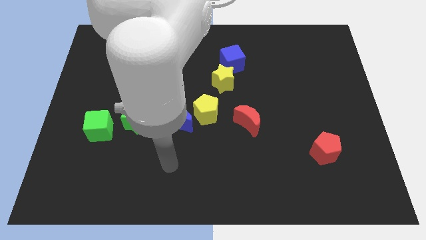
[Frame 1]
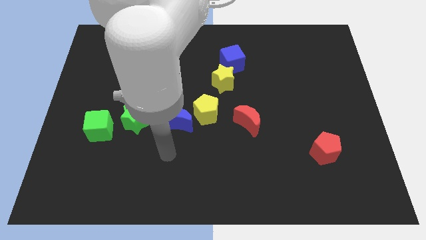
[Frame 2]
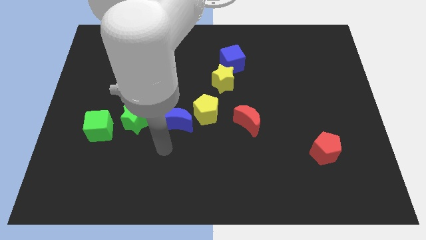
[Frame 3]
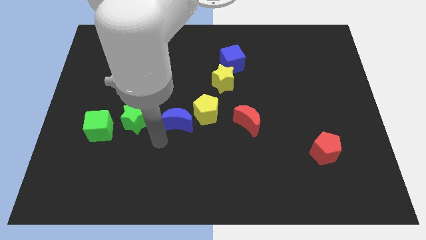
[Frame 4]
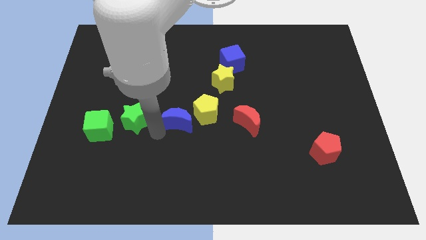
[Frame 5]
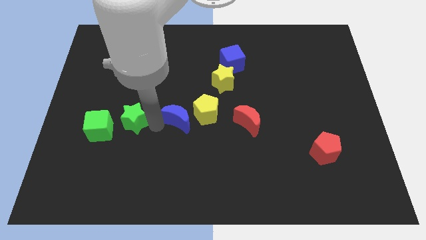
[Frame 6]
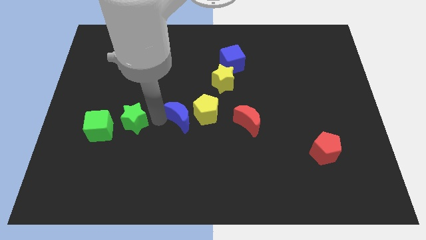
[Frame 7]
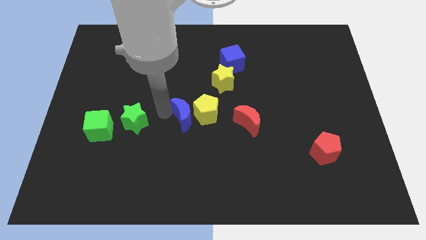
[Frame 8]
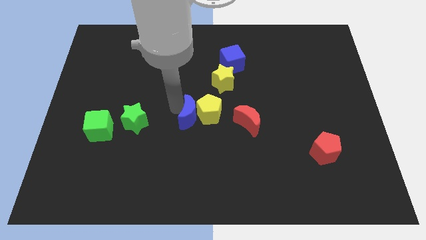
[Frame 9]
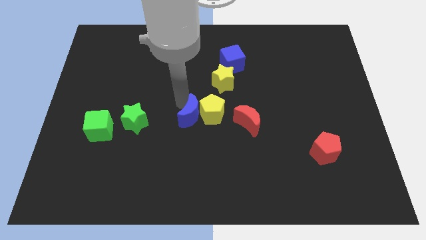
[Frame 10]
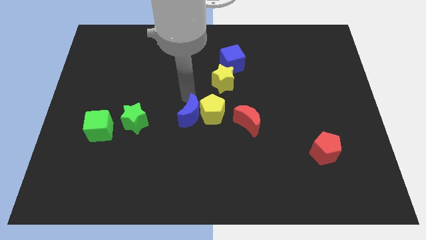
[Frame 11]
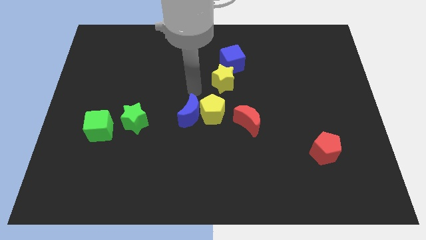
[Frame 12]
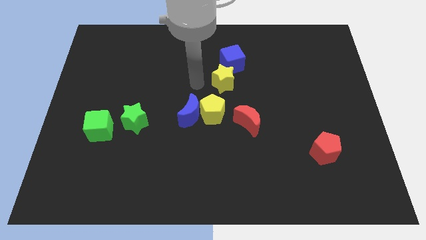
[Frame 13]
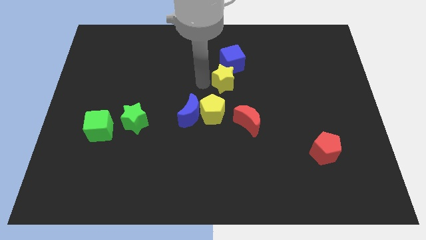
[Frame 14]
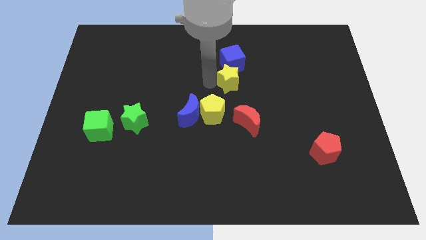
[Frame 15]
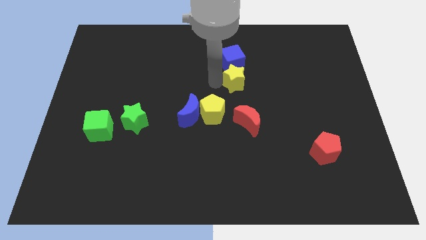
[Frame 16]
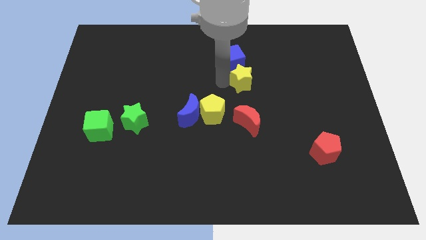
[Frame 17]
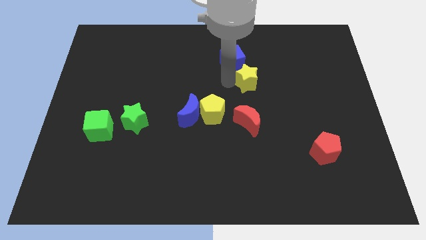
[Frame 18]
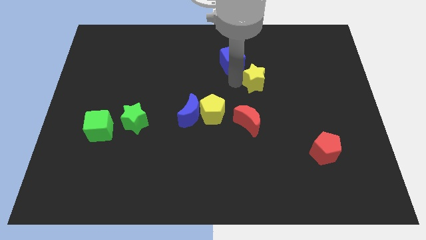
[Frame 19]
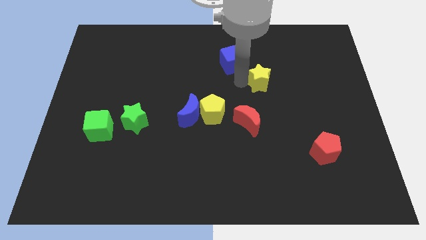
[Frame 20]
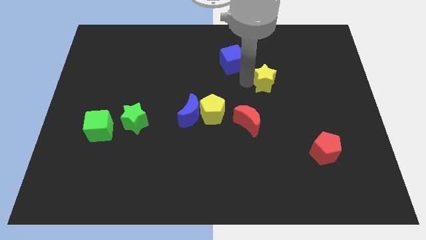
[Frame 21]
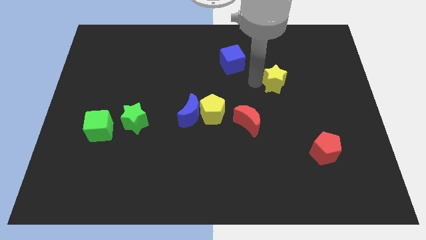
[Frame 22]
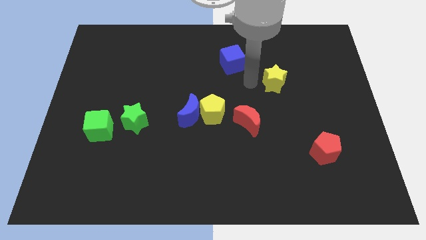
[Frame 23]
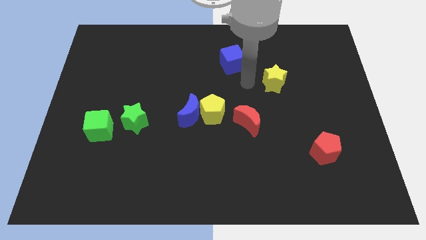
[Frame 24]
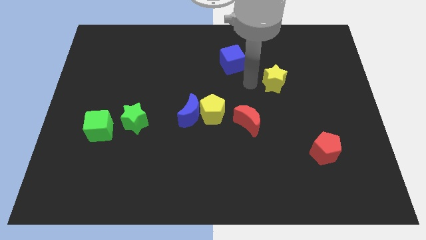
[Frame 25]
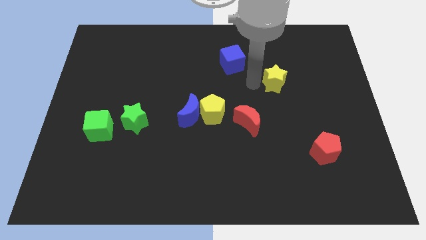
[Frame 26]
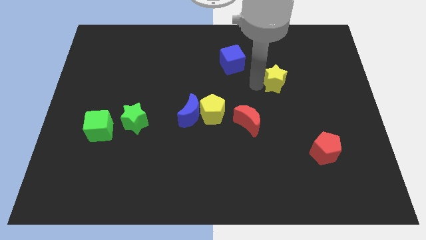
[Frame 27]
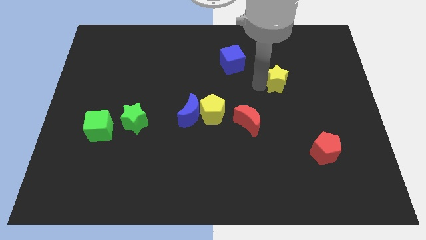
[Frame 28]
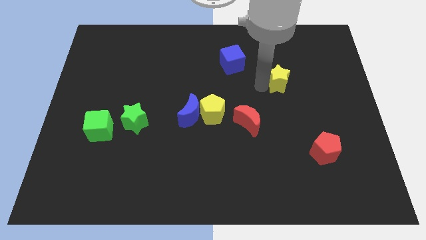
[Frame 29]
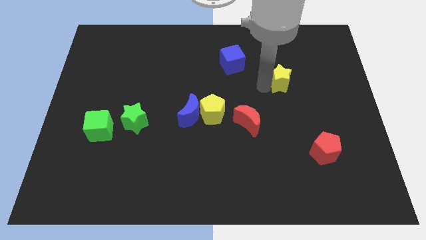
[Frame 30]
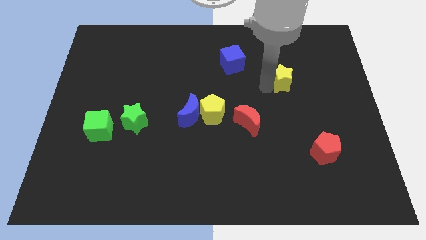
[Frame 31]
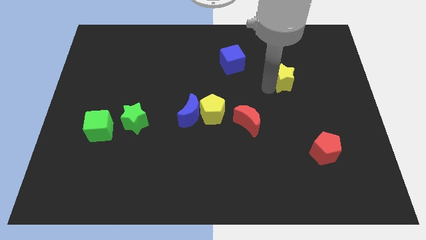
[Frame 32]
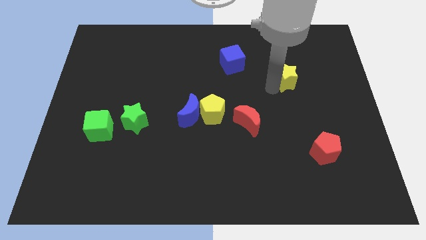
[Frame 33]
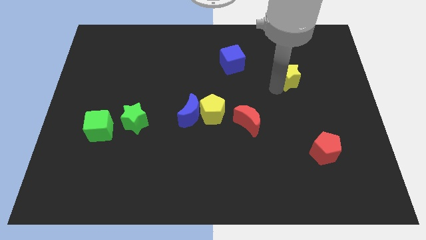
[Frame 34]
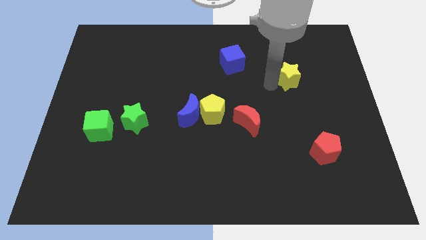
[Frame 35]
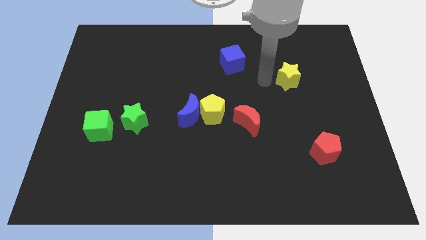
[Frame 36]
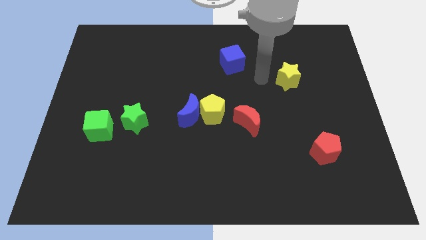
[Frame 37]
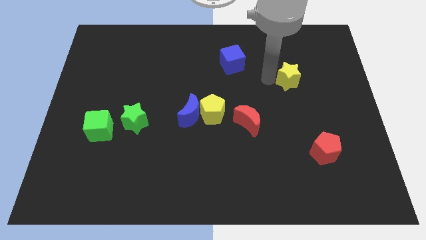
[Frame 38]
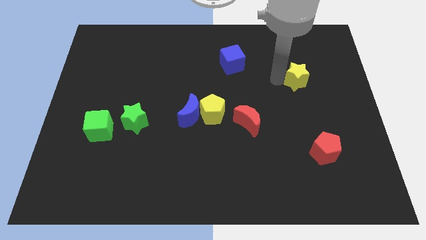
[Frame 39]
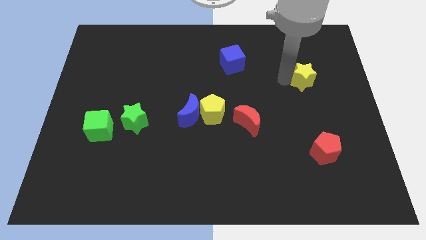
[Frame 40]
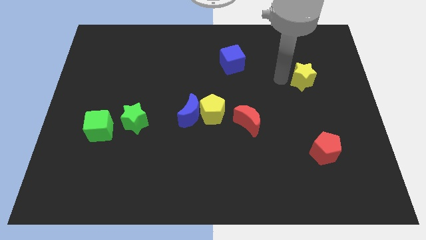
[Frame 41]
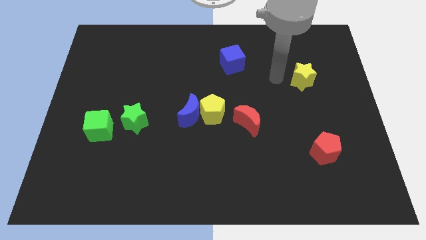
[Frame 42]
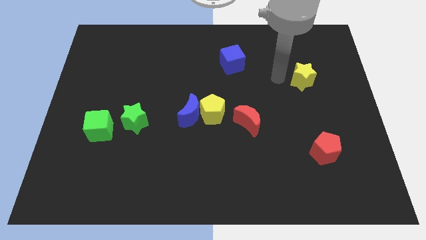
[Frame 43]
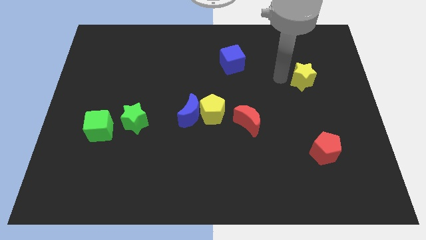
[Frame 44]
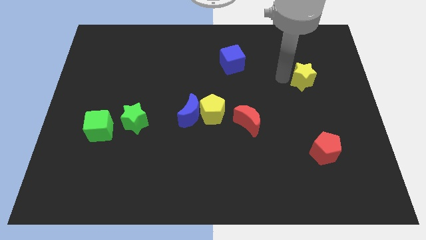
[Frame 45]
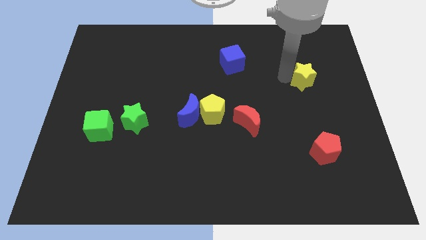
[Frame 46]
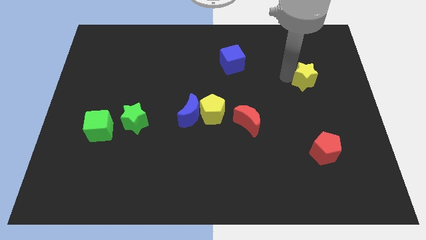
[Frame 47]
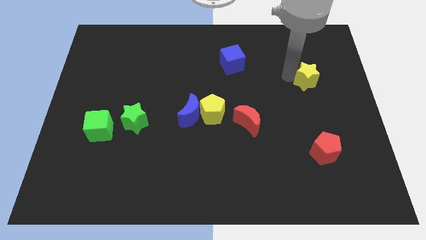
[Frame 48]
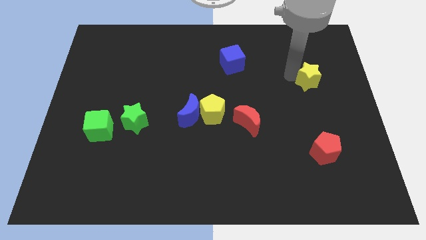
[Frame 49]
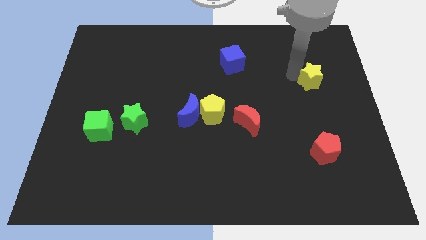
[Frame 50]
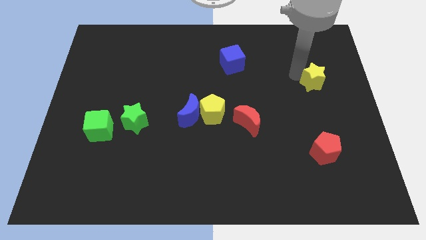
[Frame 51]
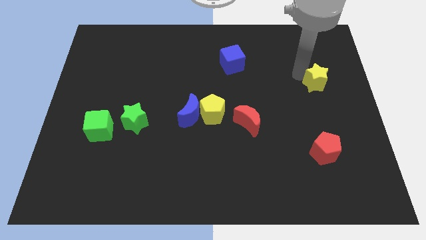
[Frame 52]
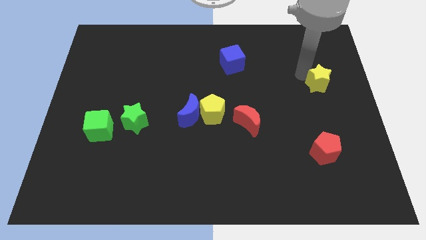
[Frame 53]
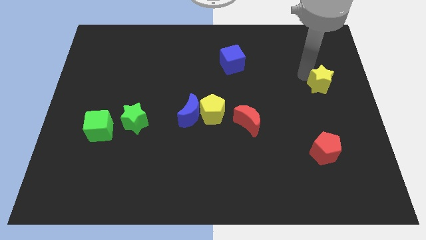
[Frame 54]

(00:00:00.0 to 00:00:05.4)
slide the yellow star to the center right
